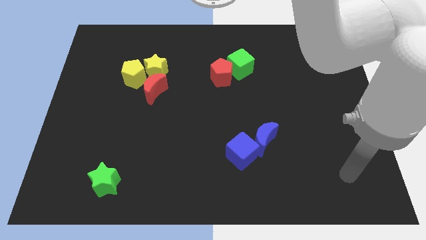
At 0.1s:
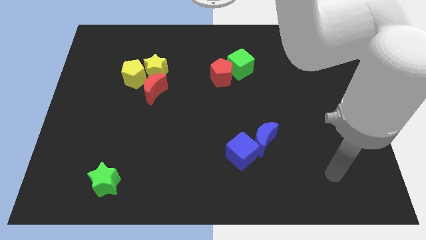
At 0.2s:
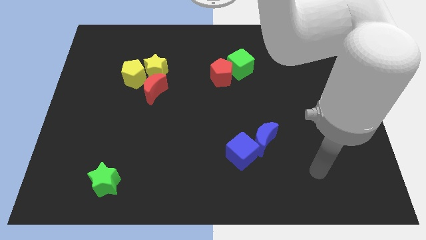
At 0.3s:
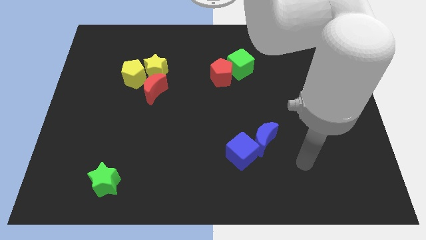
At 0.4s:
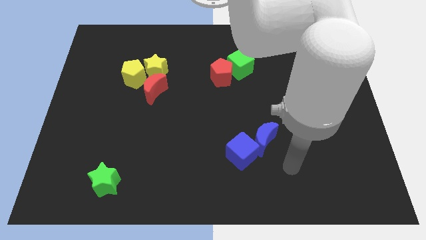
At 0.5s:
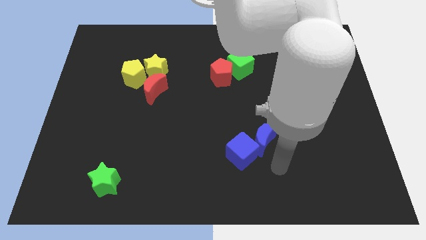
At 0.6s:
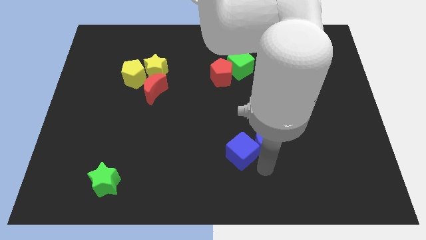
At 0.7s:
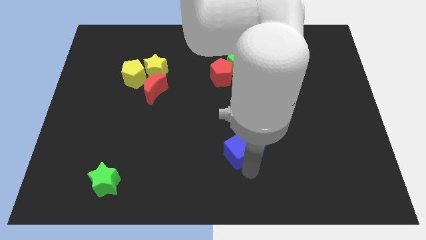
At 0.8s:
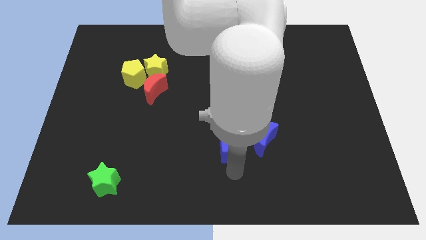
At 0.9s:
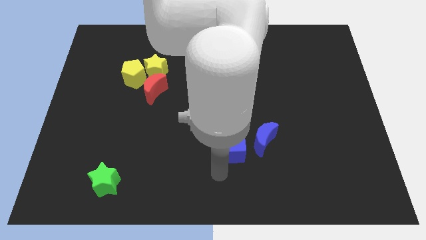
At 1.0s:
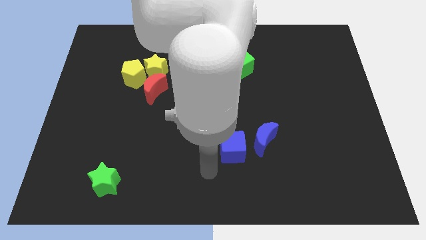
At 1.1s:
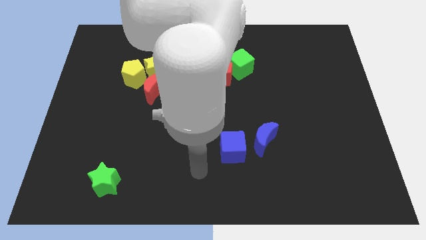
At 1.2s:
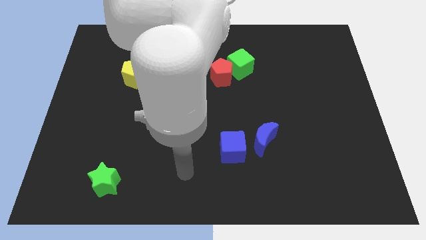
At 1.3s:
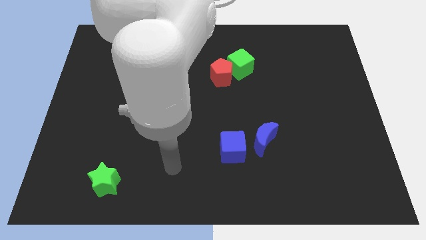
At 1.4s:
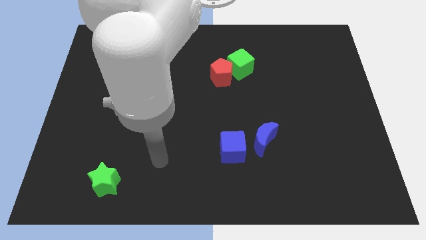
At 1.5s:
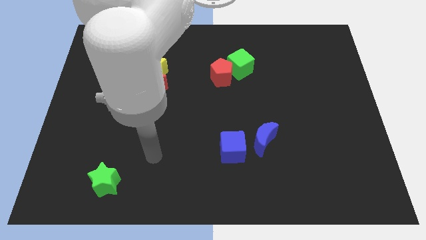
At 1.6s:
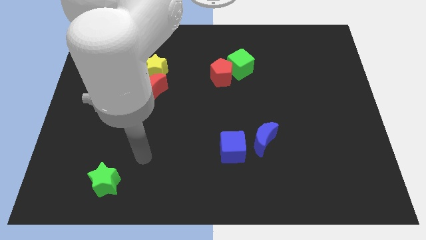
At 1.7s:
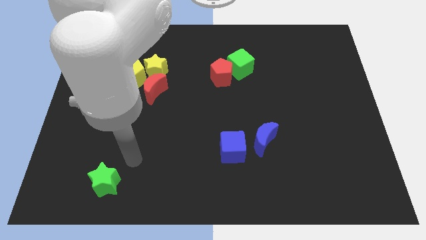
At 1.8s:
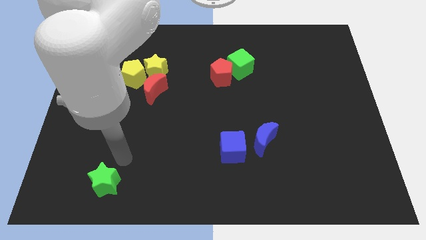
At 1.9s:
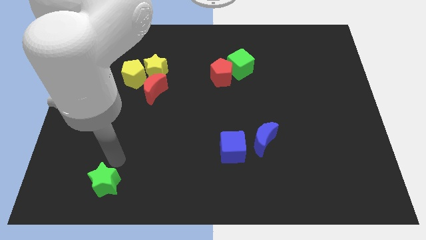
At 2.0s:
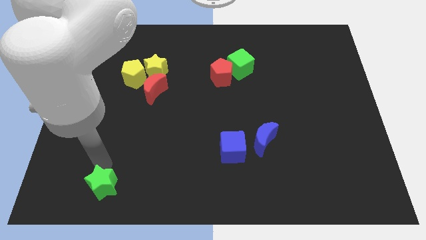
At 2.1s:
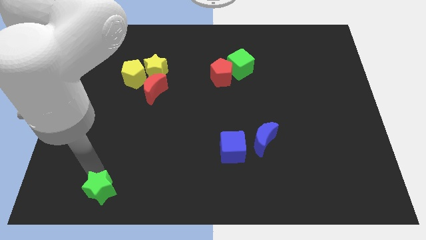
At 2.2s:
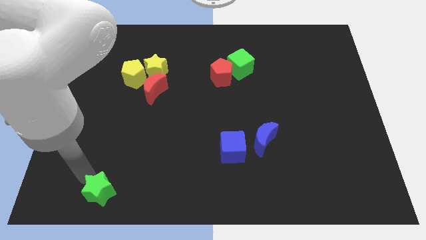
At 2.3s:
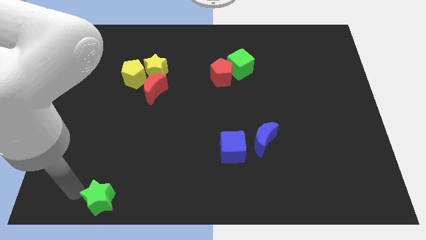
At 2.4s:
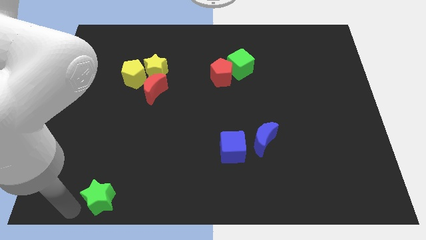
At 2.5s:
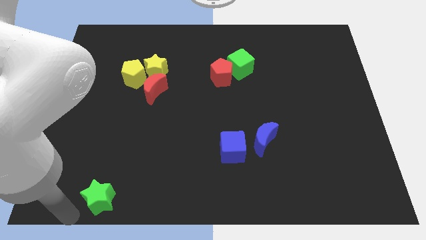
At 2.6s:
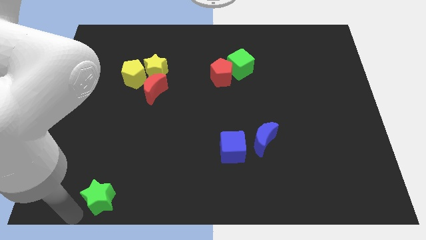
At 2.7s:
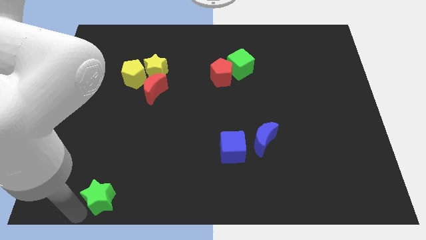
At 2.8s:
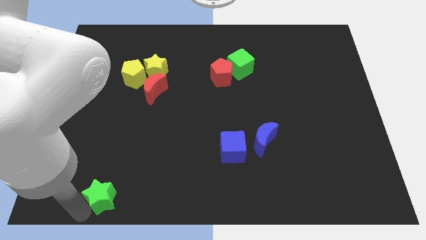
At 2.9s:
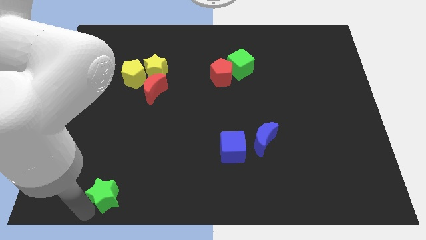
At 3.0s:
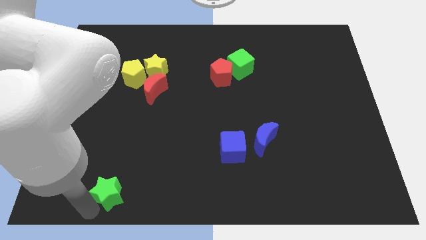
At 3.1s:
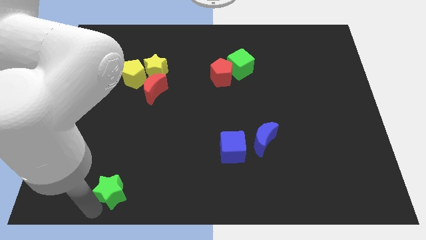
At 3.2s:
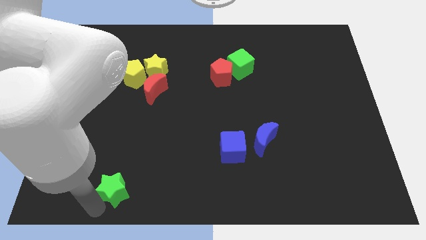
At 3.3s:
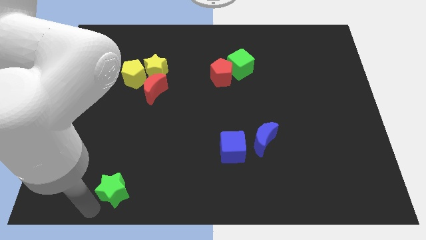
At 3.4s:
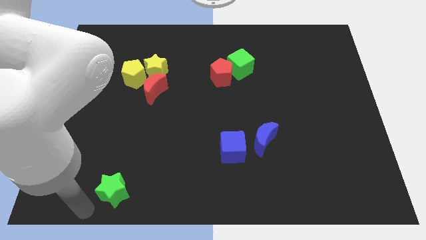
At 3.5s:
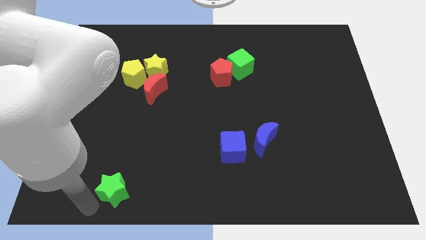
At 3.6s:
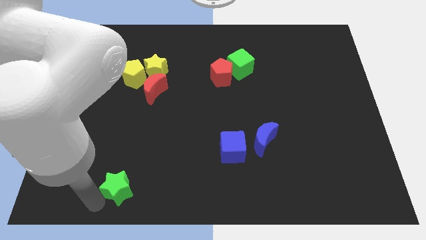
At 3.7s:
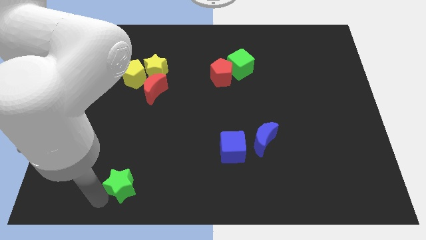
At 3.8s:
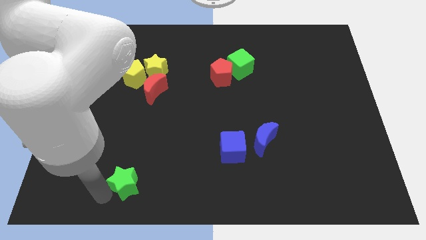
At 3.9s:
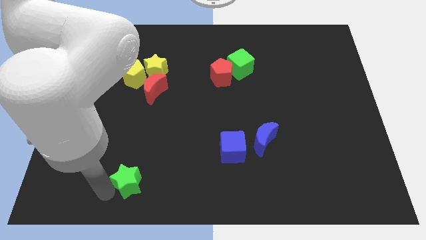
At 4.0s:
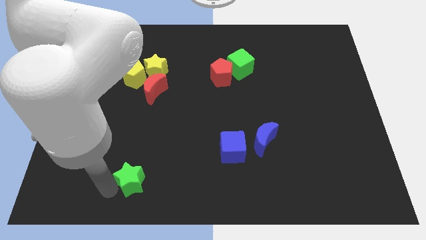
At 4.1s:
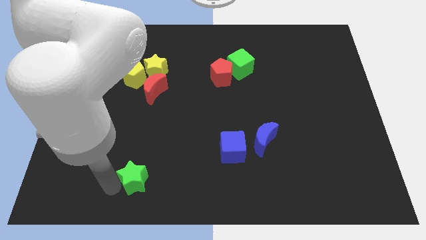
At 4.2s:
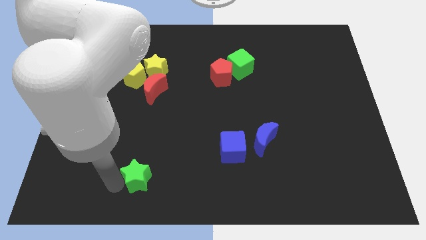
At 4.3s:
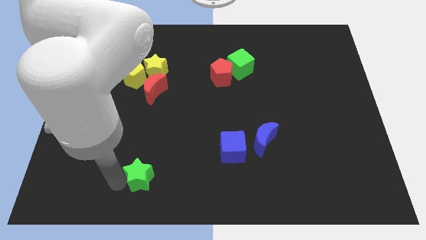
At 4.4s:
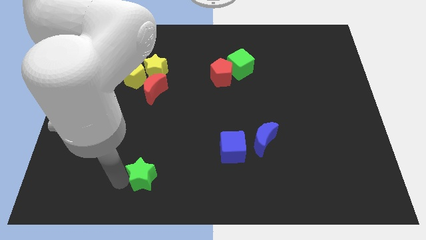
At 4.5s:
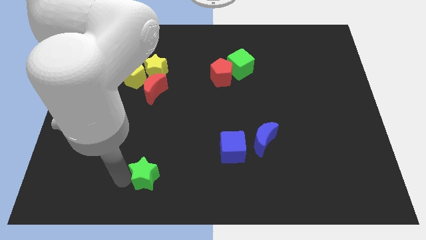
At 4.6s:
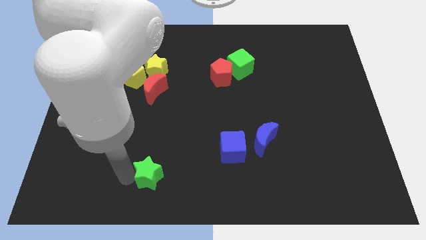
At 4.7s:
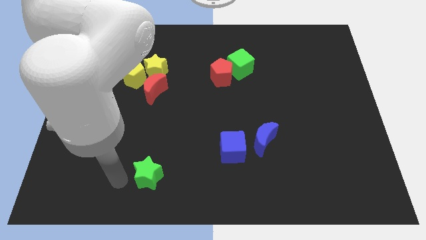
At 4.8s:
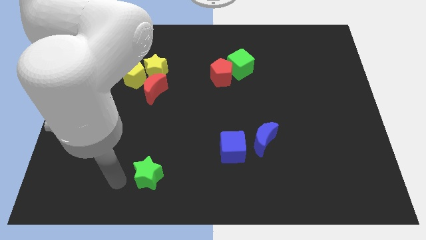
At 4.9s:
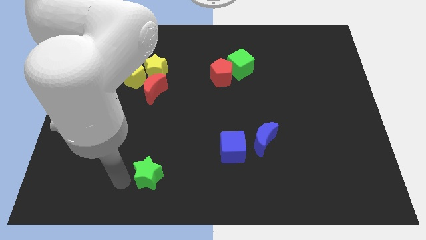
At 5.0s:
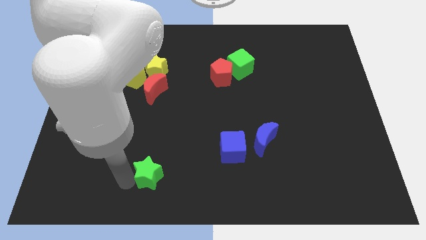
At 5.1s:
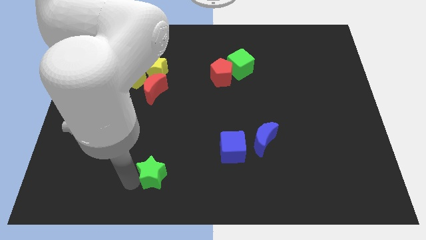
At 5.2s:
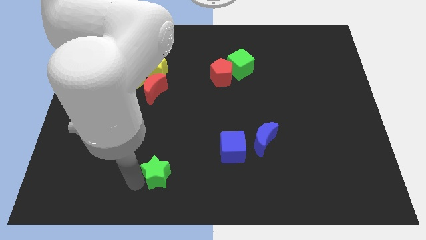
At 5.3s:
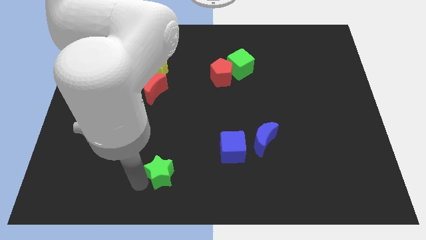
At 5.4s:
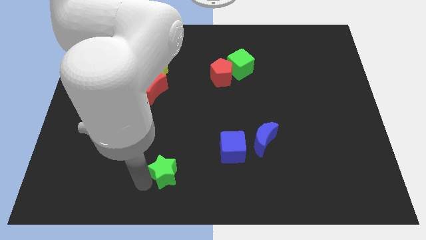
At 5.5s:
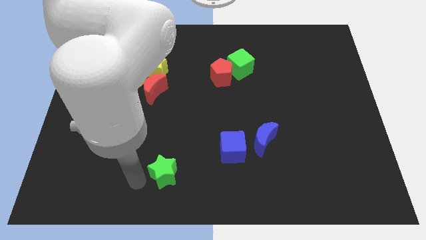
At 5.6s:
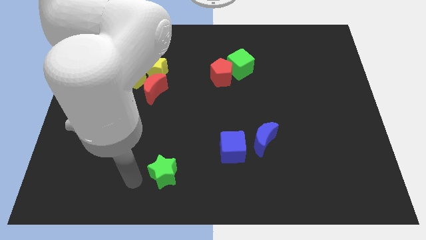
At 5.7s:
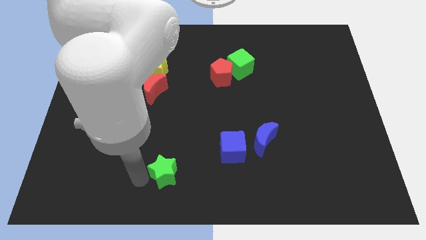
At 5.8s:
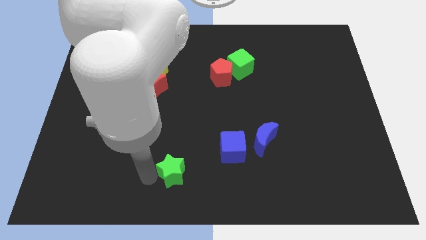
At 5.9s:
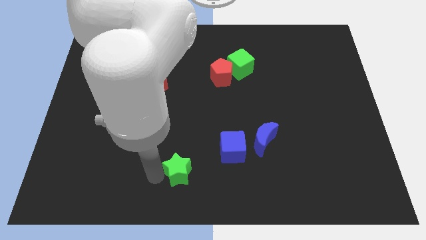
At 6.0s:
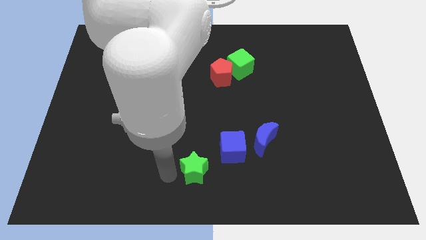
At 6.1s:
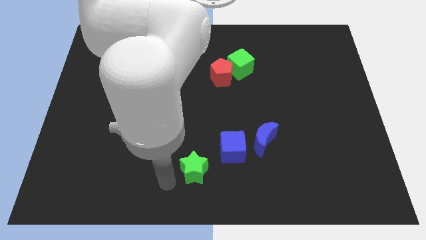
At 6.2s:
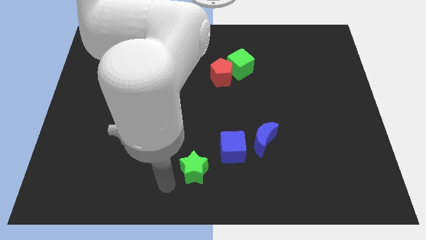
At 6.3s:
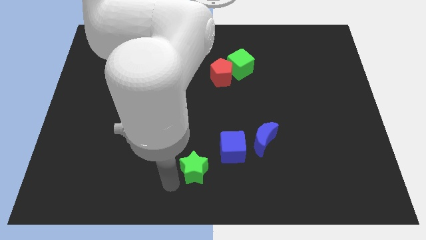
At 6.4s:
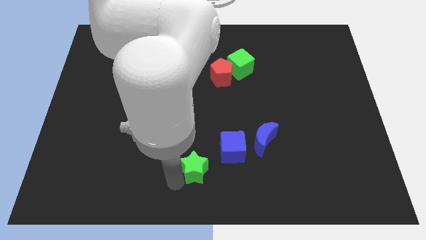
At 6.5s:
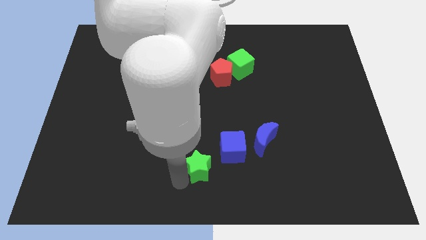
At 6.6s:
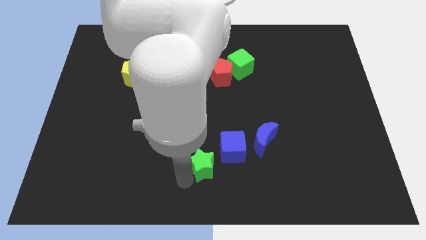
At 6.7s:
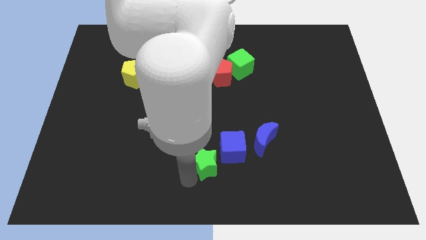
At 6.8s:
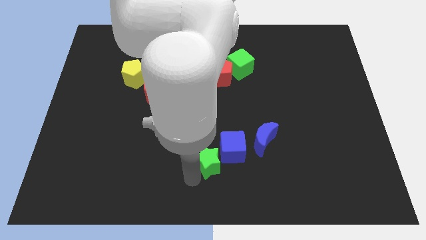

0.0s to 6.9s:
push the green star towards the blue cube

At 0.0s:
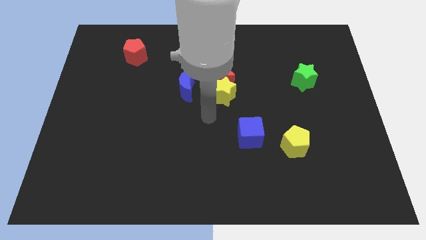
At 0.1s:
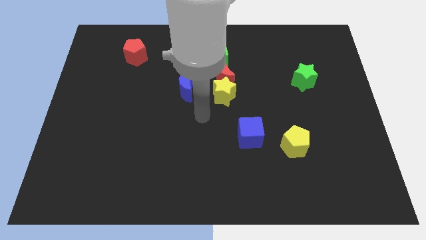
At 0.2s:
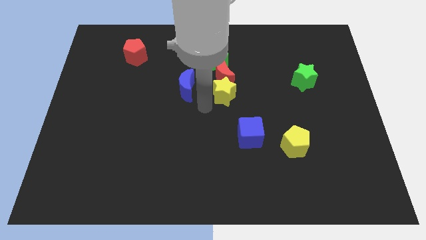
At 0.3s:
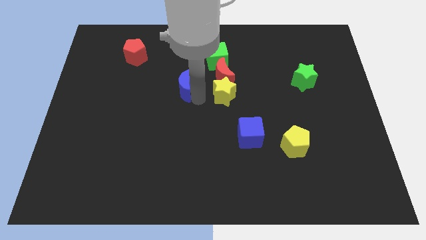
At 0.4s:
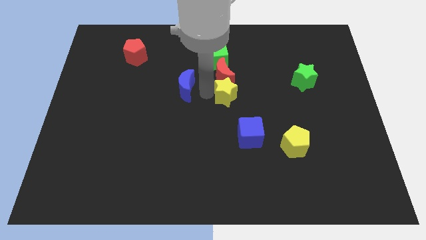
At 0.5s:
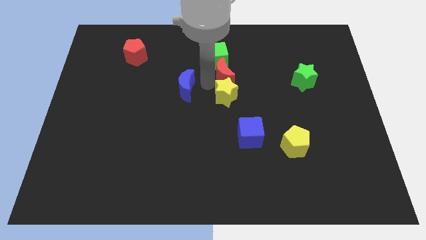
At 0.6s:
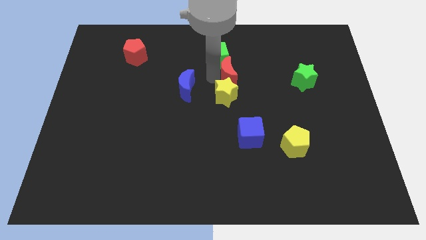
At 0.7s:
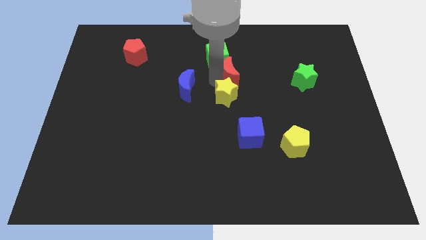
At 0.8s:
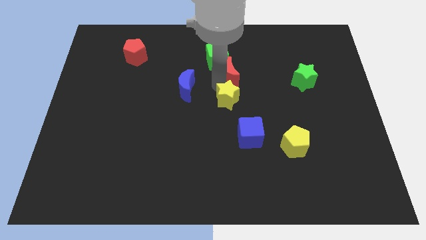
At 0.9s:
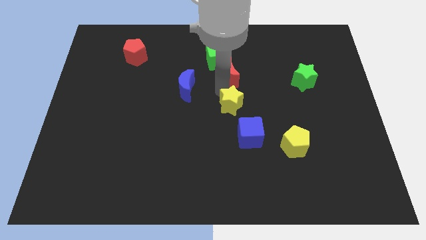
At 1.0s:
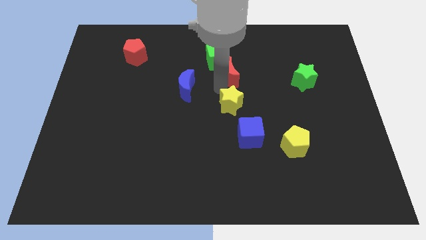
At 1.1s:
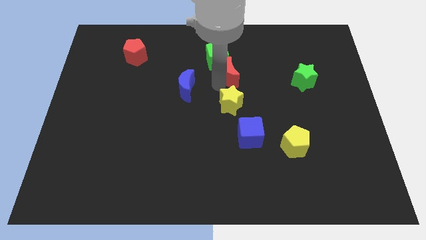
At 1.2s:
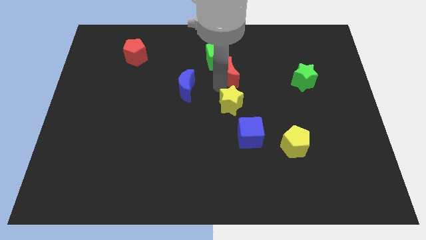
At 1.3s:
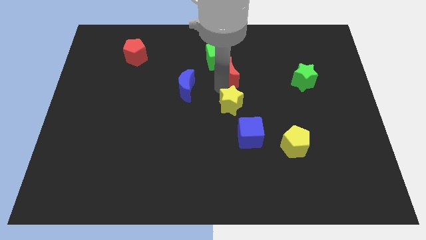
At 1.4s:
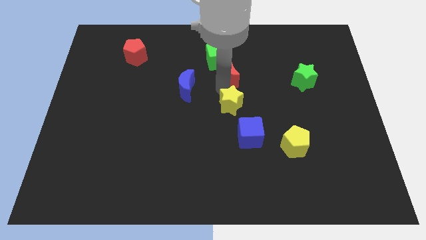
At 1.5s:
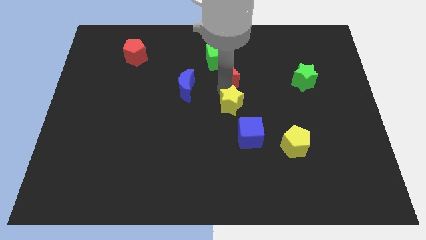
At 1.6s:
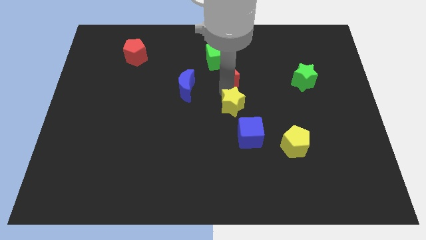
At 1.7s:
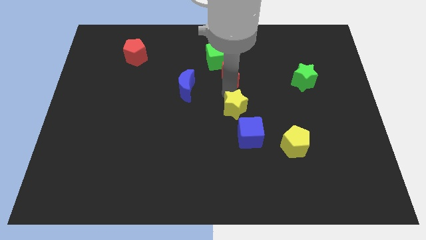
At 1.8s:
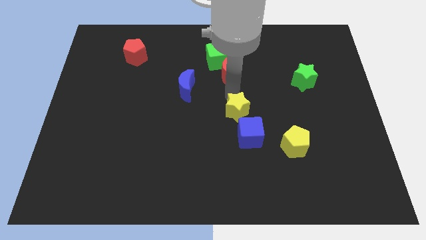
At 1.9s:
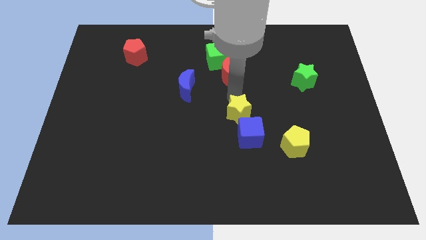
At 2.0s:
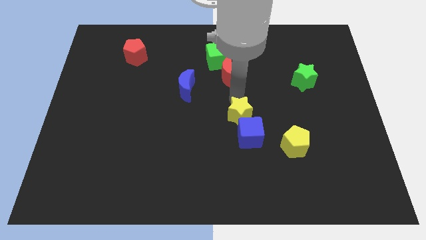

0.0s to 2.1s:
put the yellow star close to the blue cube
